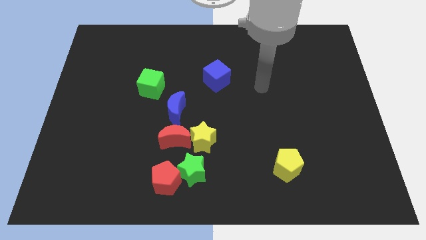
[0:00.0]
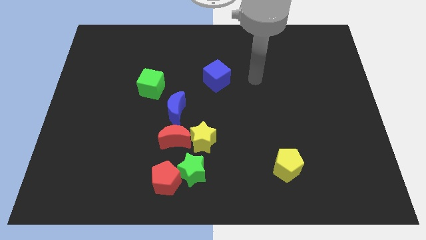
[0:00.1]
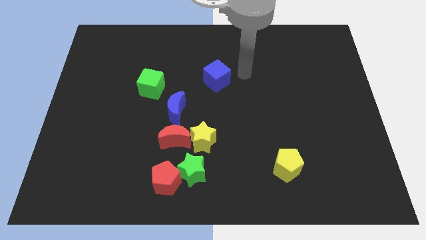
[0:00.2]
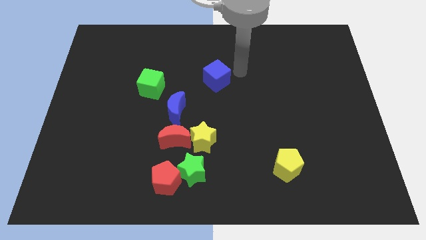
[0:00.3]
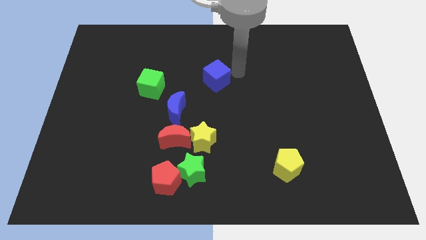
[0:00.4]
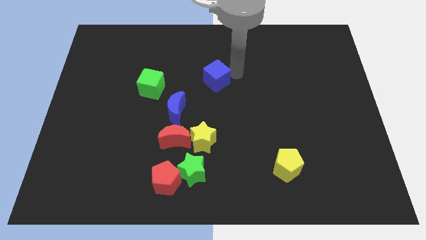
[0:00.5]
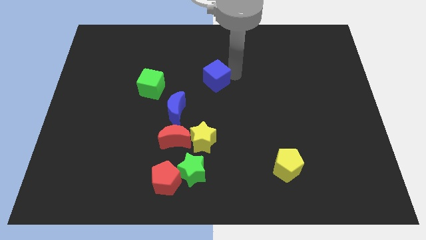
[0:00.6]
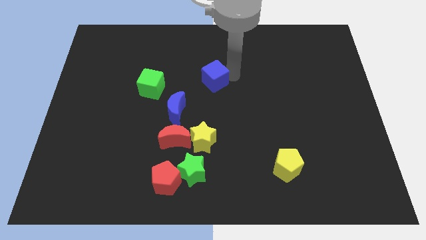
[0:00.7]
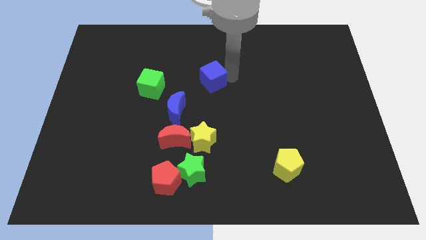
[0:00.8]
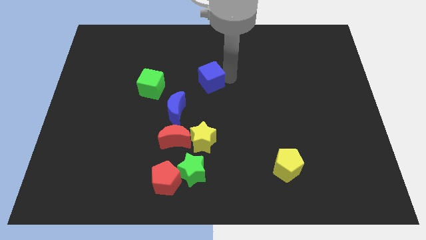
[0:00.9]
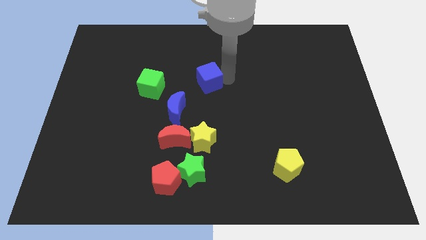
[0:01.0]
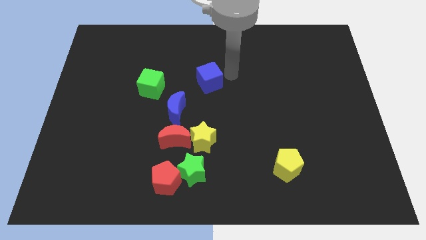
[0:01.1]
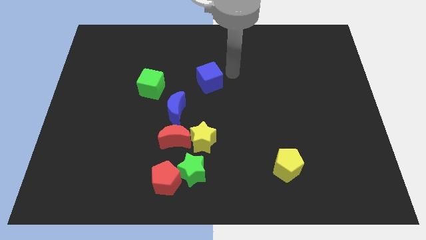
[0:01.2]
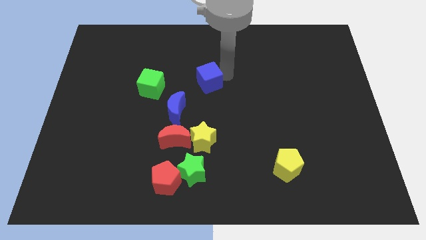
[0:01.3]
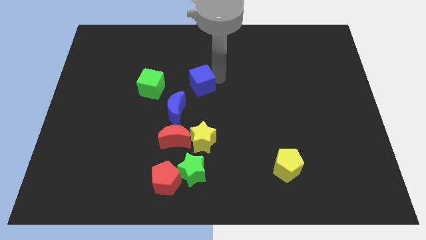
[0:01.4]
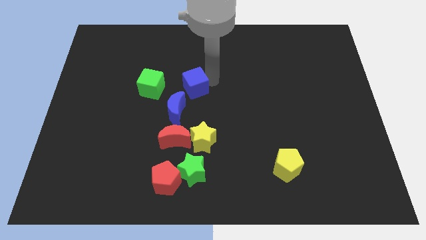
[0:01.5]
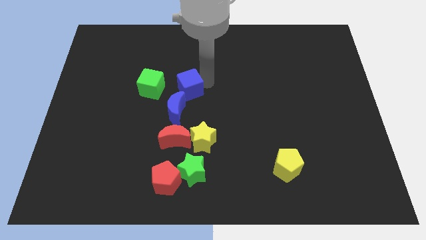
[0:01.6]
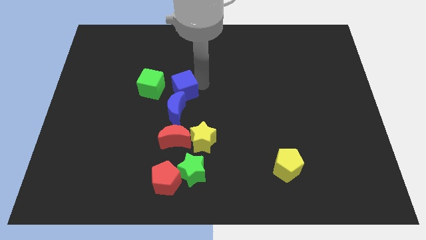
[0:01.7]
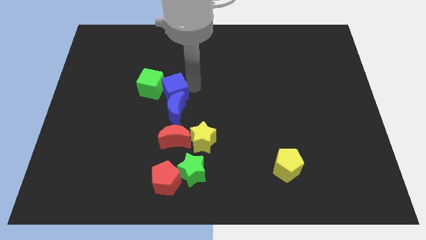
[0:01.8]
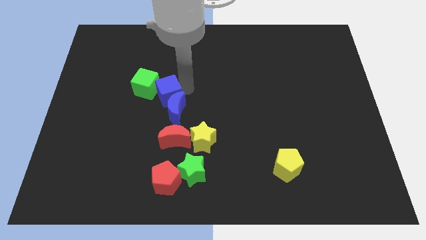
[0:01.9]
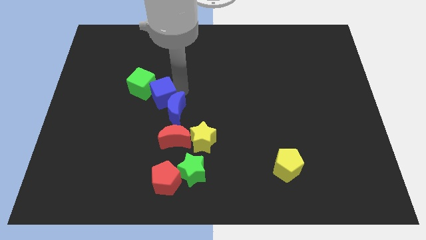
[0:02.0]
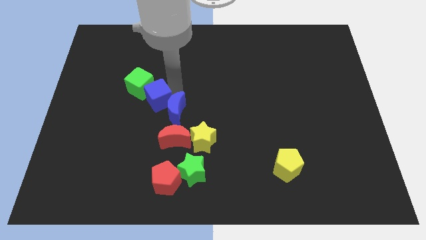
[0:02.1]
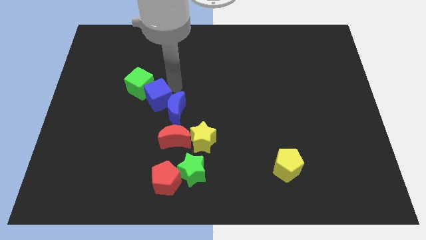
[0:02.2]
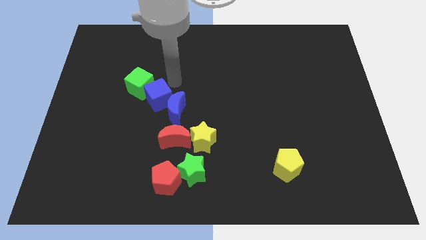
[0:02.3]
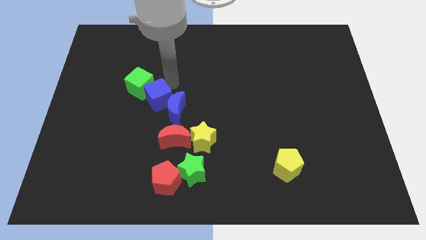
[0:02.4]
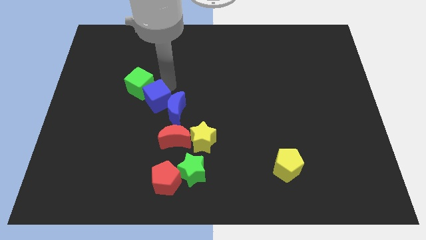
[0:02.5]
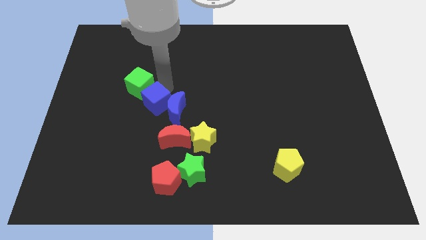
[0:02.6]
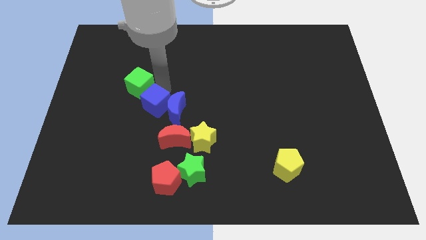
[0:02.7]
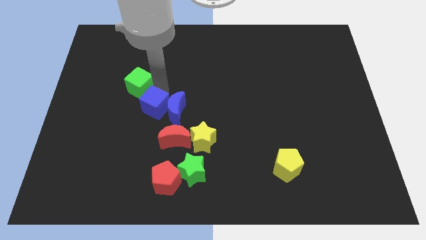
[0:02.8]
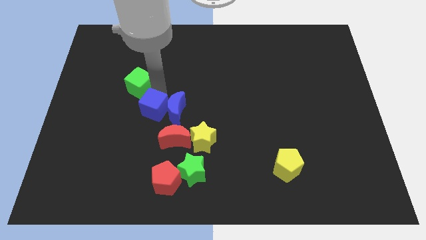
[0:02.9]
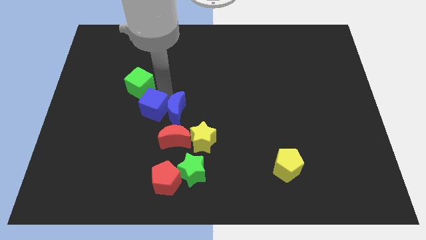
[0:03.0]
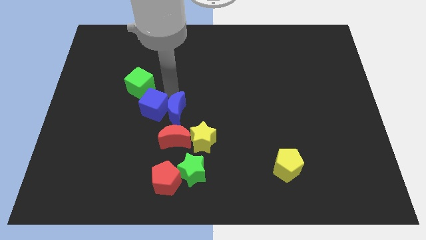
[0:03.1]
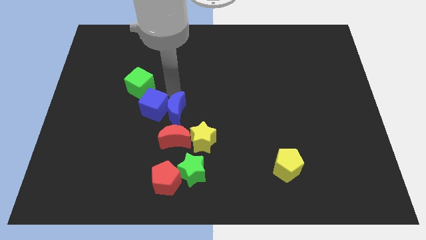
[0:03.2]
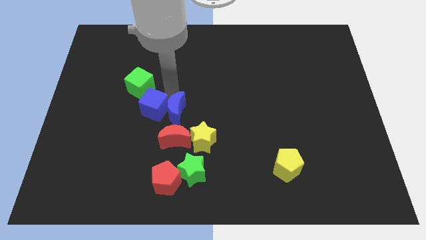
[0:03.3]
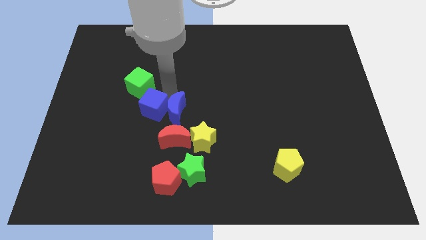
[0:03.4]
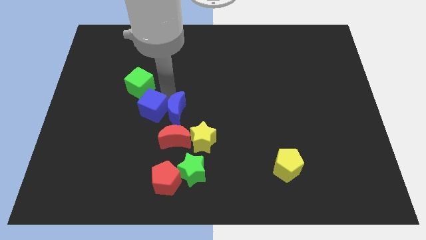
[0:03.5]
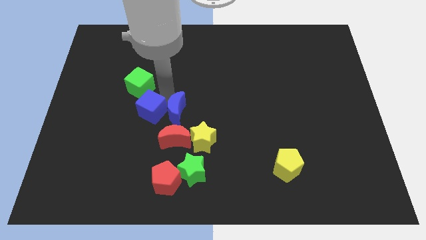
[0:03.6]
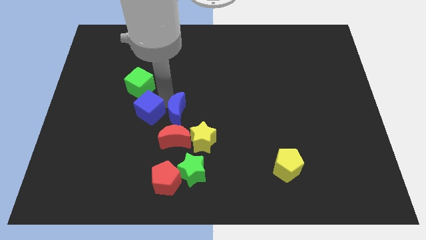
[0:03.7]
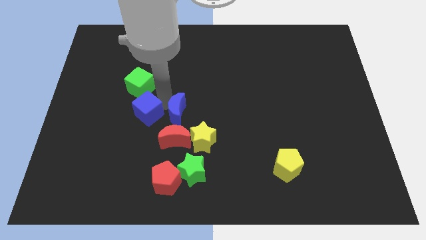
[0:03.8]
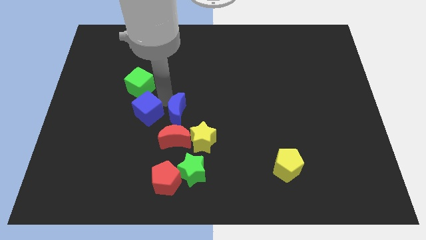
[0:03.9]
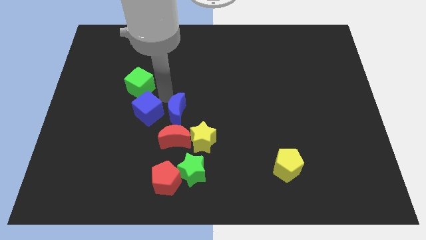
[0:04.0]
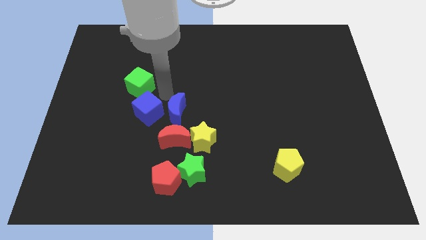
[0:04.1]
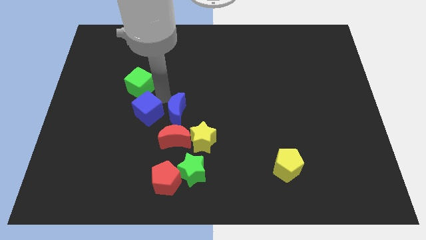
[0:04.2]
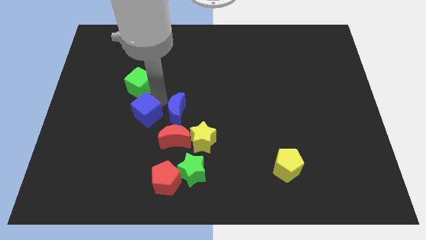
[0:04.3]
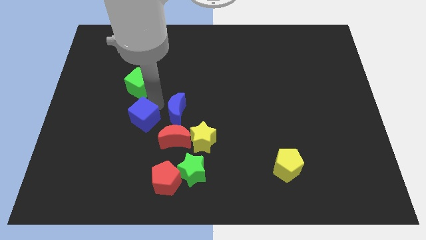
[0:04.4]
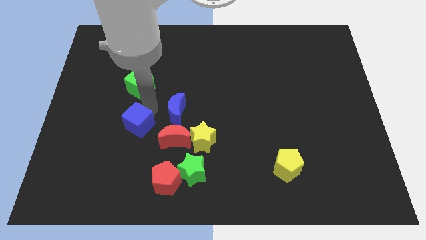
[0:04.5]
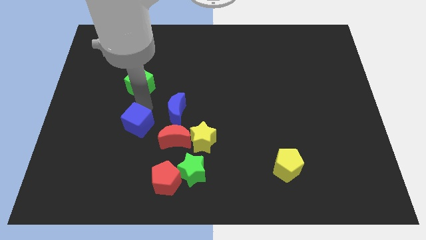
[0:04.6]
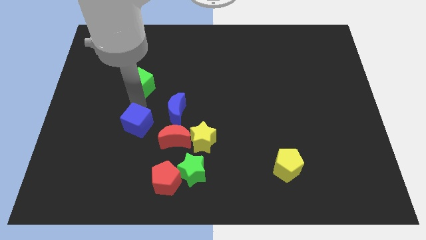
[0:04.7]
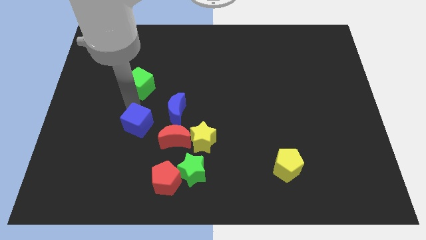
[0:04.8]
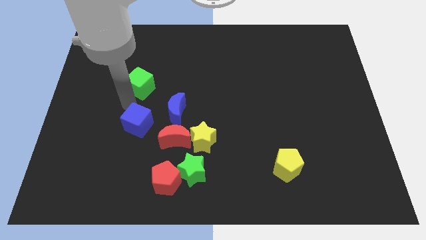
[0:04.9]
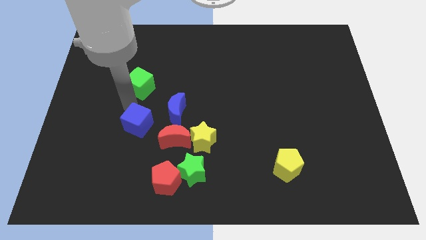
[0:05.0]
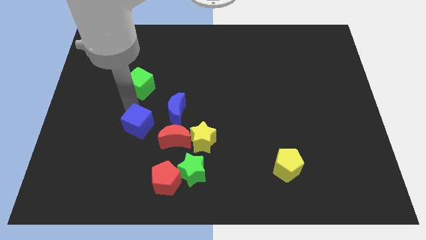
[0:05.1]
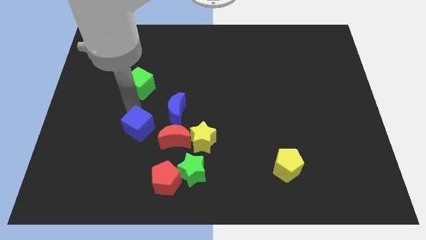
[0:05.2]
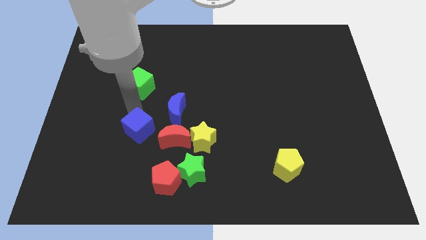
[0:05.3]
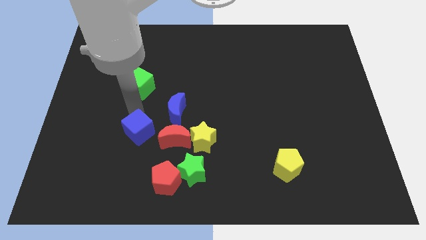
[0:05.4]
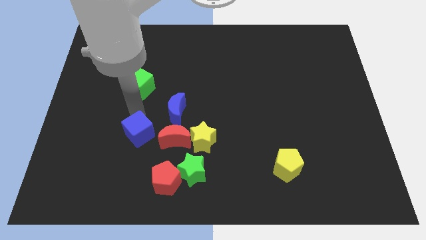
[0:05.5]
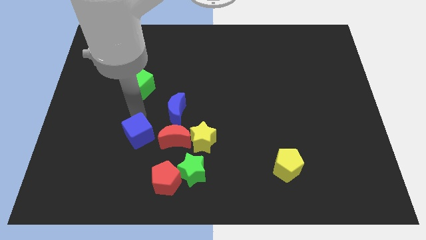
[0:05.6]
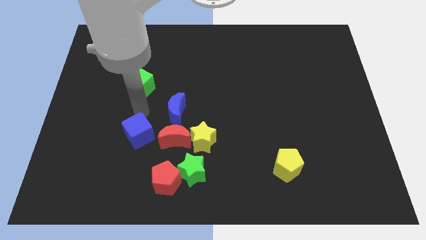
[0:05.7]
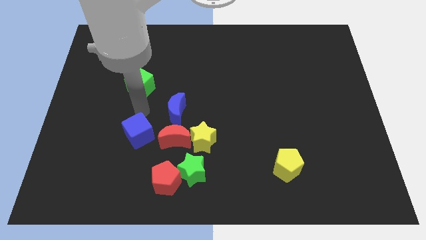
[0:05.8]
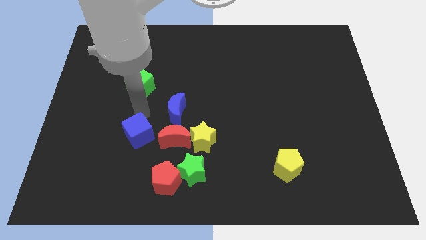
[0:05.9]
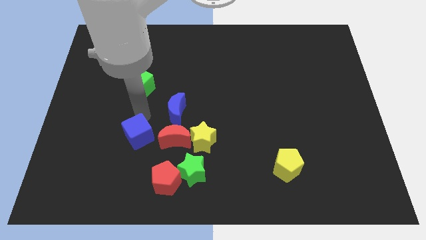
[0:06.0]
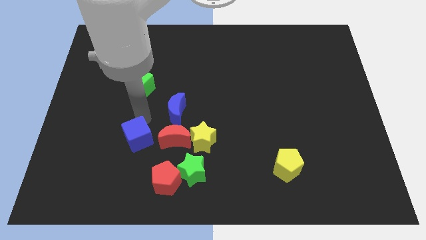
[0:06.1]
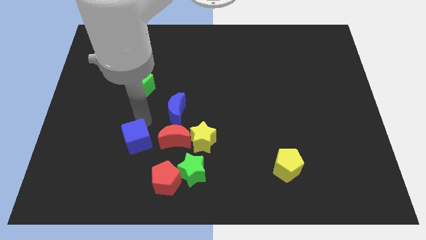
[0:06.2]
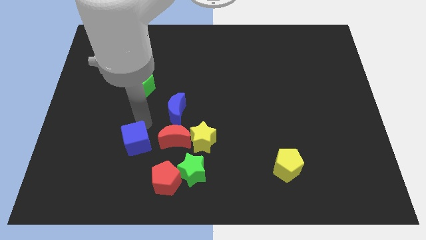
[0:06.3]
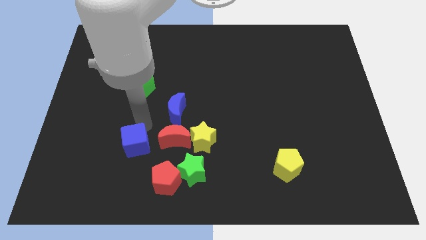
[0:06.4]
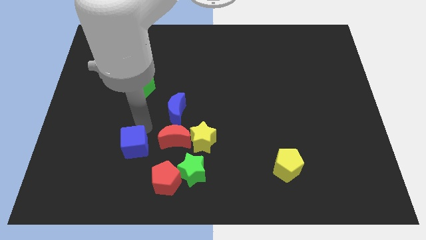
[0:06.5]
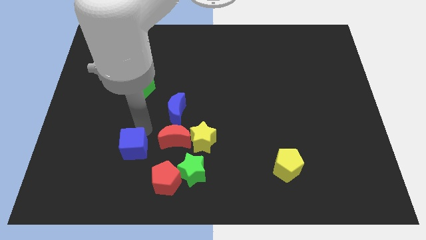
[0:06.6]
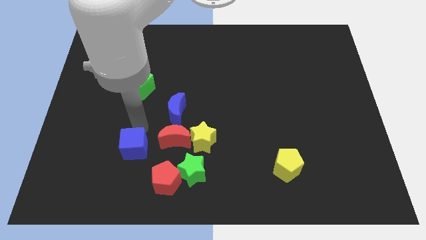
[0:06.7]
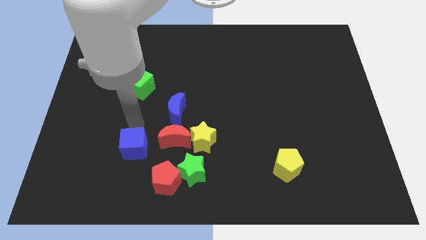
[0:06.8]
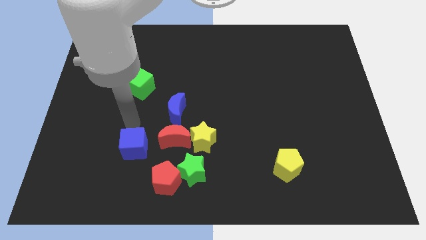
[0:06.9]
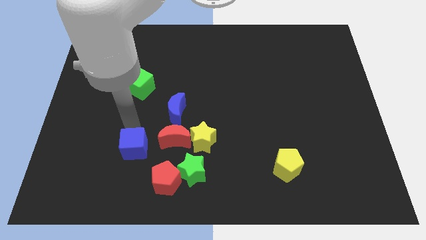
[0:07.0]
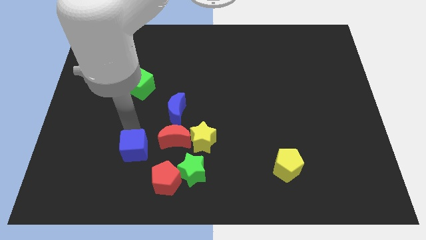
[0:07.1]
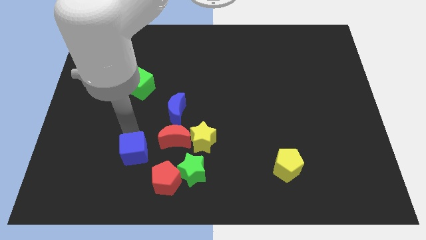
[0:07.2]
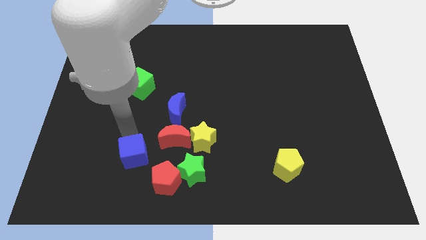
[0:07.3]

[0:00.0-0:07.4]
slide the blue cube to the left of the green star
